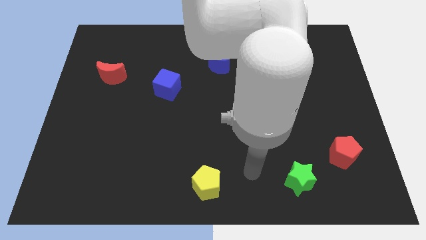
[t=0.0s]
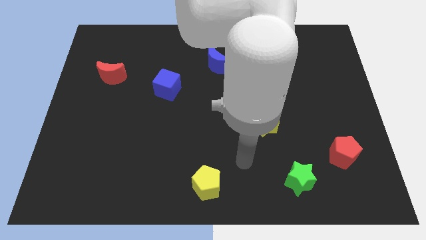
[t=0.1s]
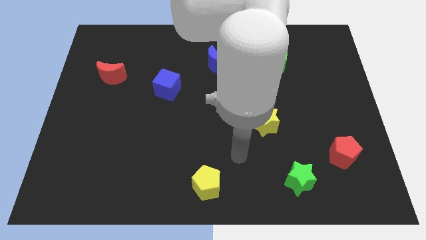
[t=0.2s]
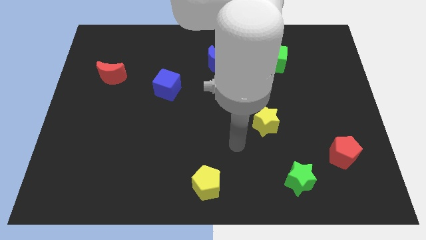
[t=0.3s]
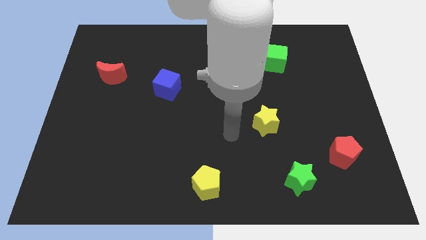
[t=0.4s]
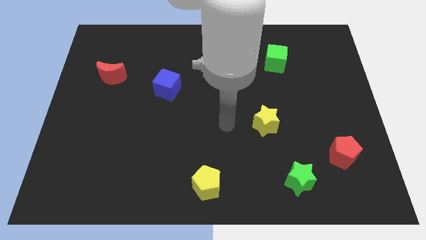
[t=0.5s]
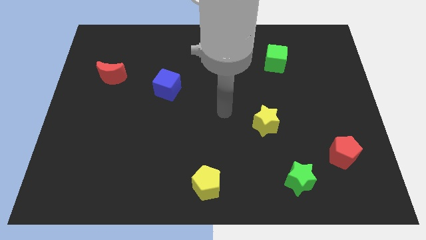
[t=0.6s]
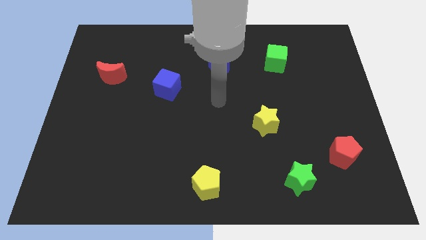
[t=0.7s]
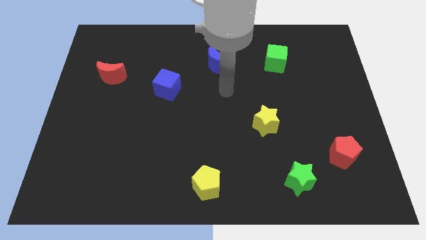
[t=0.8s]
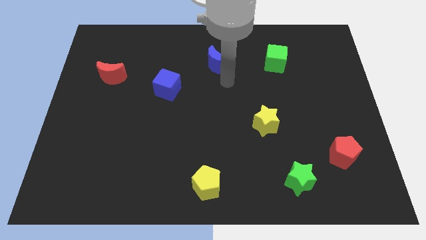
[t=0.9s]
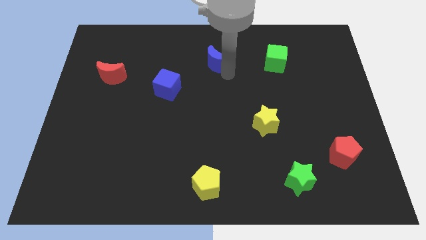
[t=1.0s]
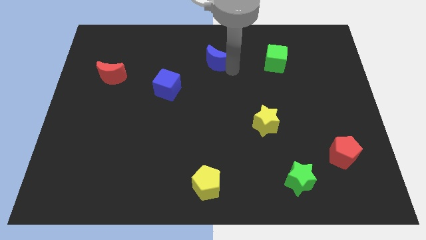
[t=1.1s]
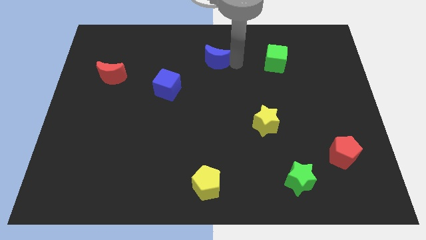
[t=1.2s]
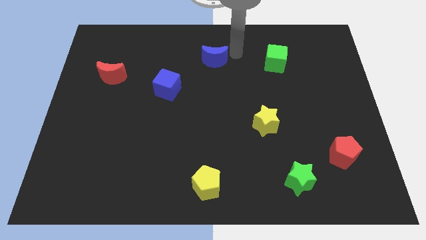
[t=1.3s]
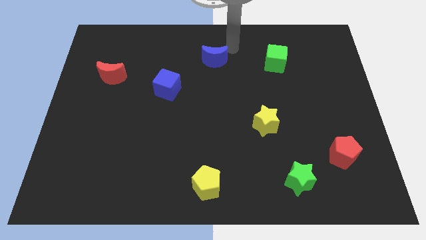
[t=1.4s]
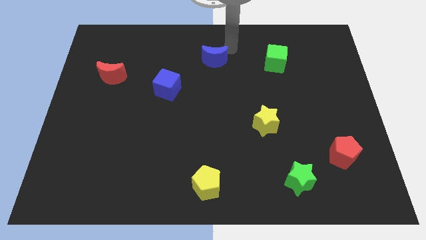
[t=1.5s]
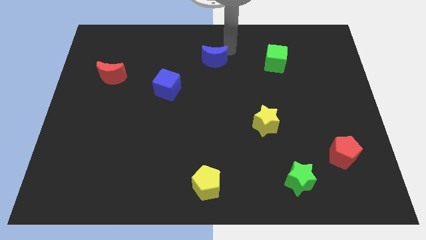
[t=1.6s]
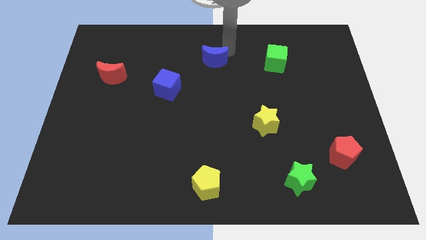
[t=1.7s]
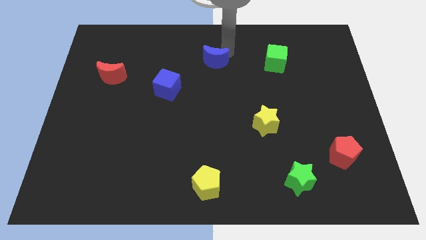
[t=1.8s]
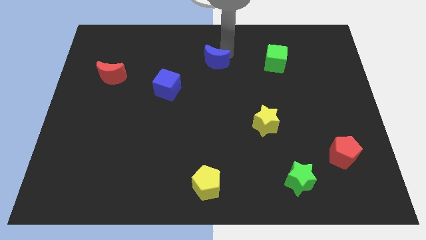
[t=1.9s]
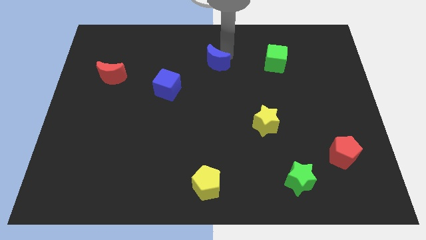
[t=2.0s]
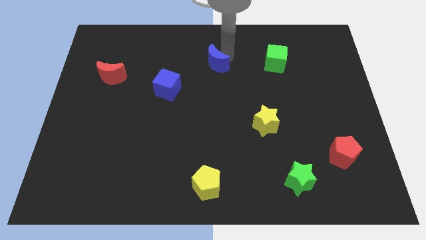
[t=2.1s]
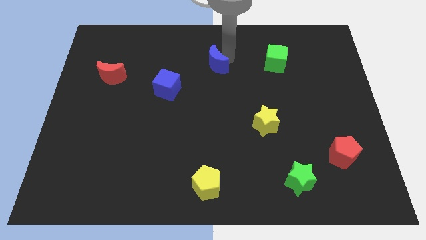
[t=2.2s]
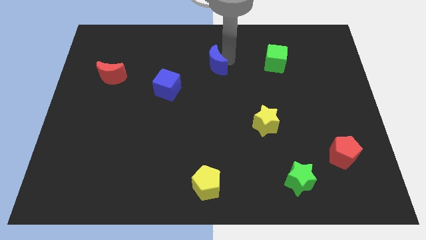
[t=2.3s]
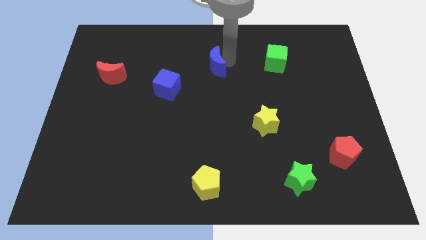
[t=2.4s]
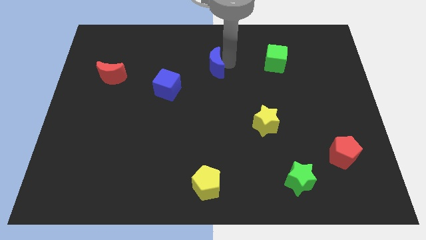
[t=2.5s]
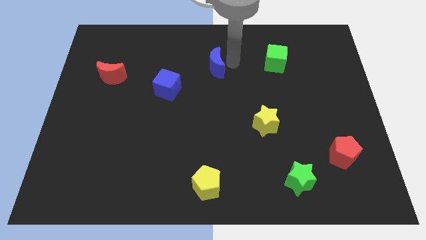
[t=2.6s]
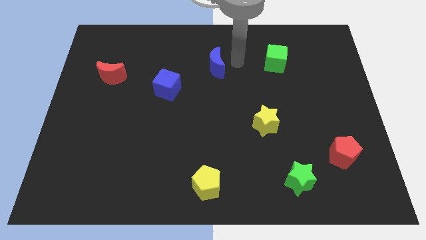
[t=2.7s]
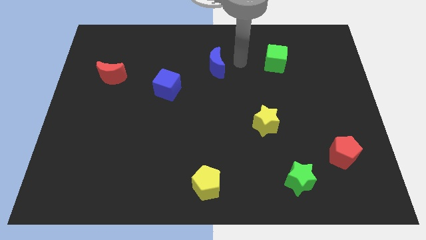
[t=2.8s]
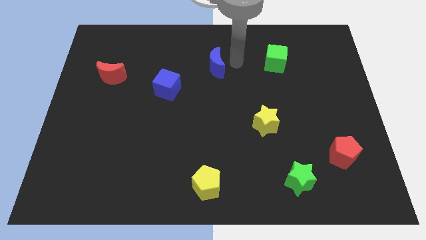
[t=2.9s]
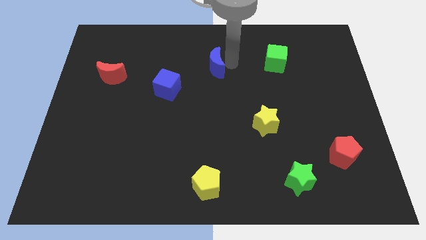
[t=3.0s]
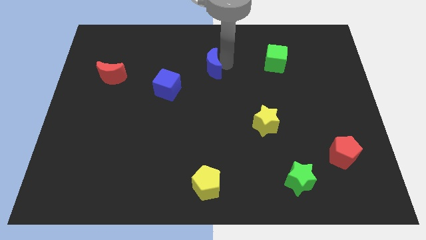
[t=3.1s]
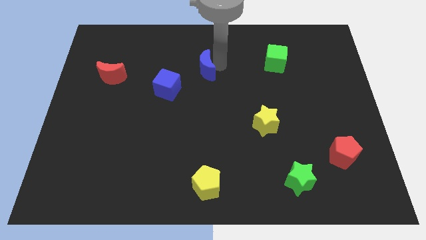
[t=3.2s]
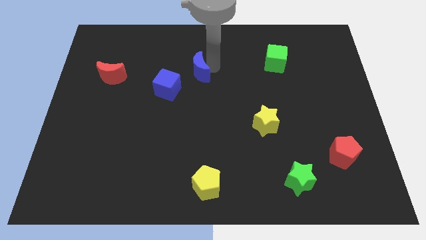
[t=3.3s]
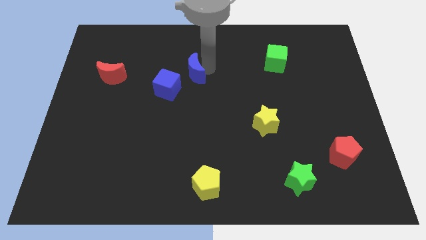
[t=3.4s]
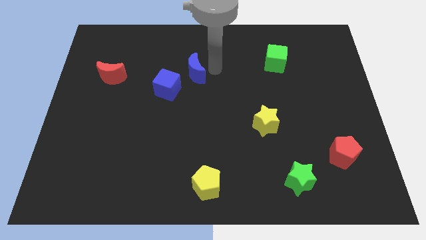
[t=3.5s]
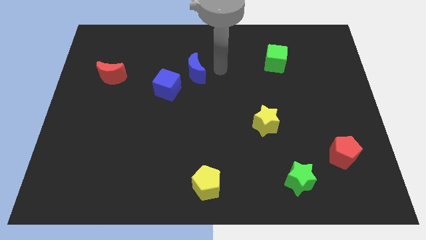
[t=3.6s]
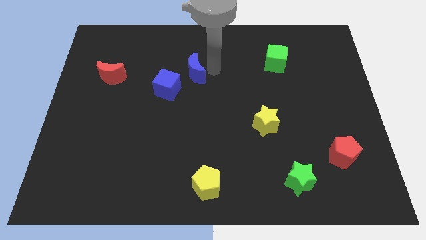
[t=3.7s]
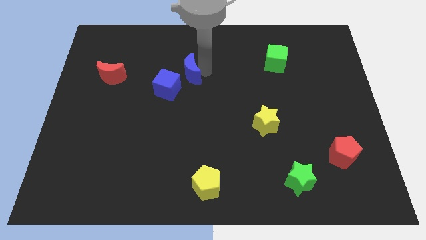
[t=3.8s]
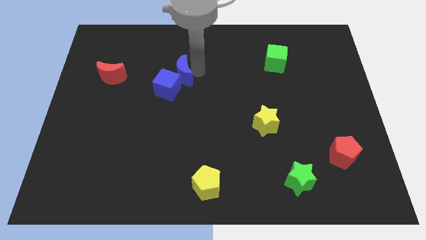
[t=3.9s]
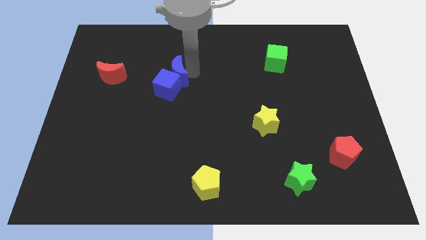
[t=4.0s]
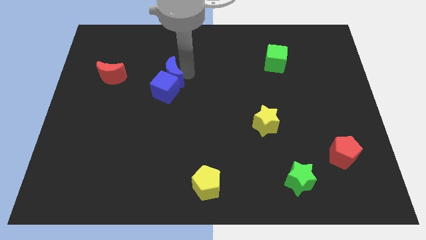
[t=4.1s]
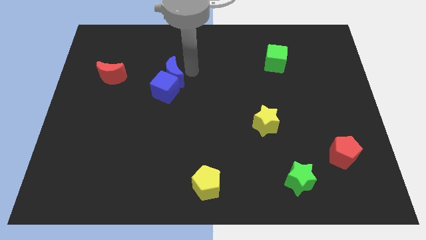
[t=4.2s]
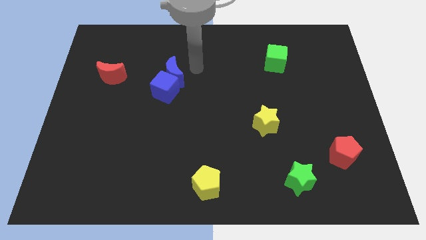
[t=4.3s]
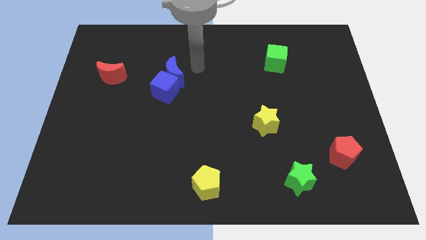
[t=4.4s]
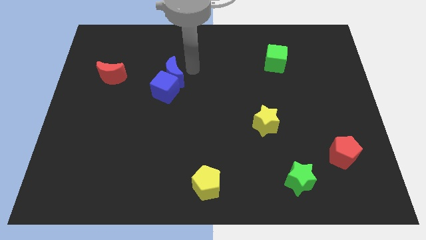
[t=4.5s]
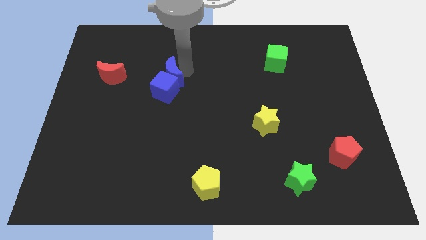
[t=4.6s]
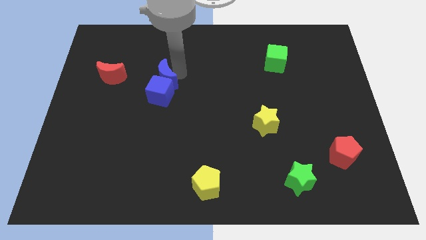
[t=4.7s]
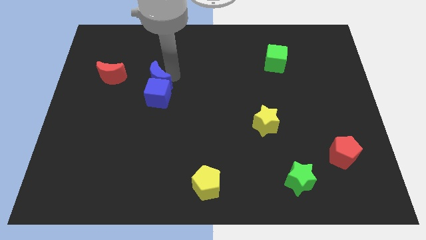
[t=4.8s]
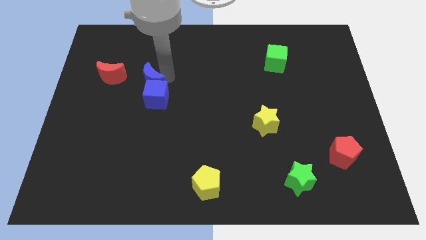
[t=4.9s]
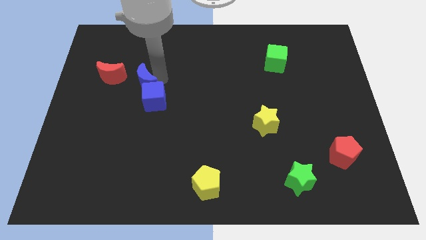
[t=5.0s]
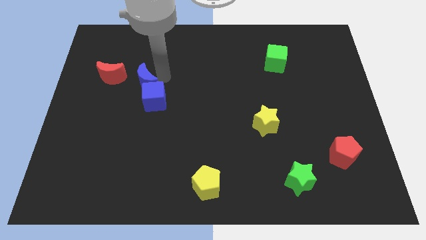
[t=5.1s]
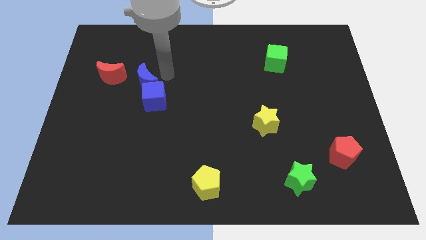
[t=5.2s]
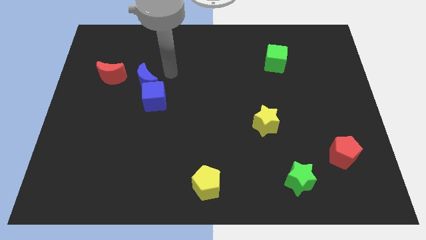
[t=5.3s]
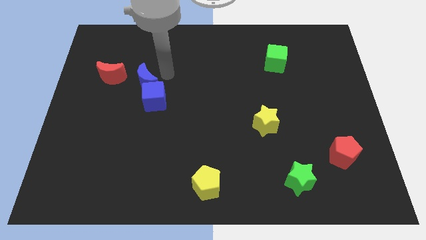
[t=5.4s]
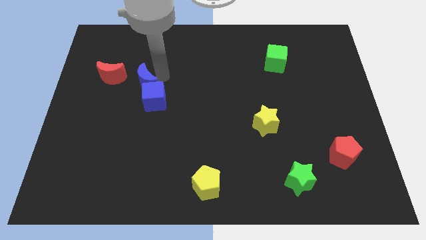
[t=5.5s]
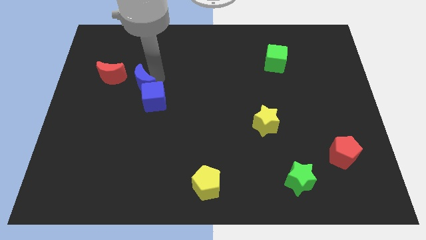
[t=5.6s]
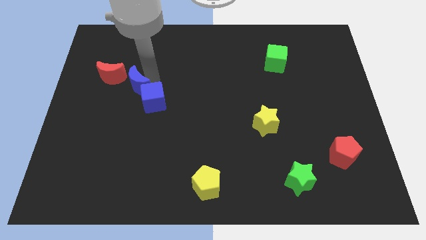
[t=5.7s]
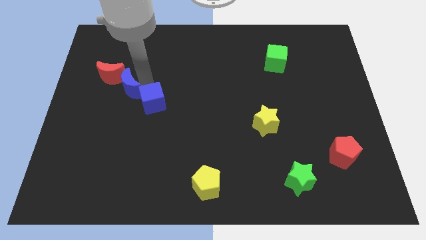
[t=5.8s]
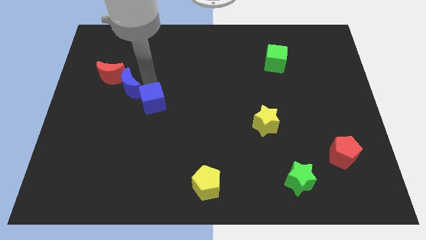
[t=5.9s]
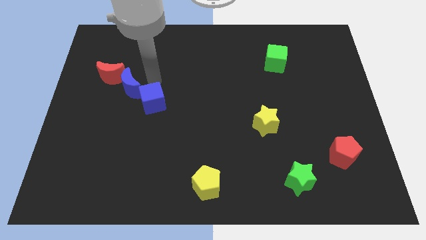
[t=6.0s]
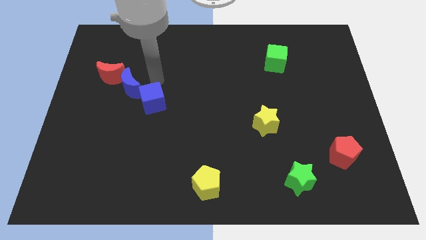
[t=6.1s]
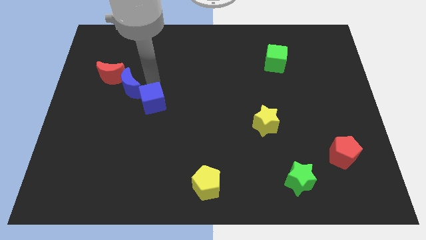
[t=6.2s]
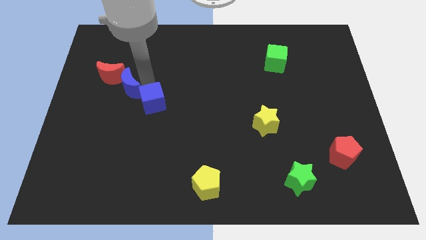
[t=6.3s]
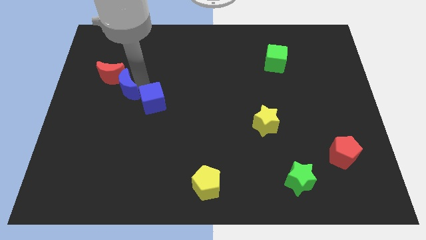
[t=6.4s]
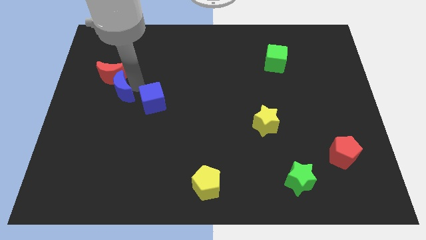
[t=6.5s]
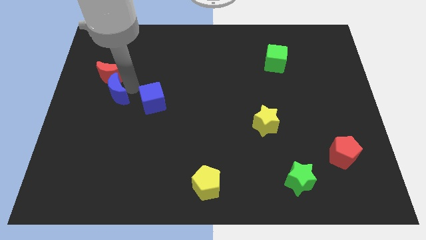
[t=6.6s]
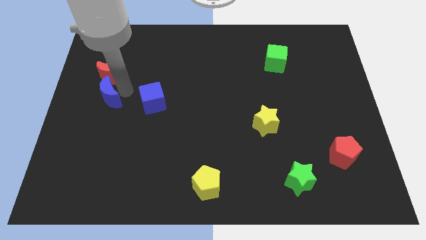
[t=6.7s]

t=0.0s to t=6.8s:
move the blue moon to the left side
